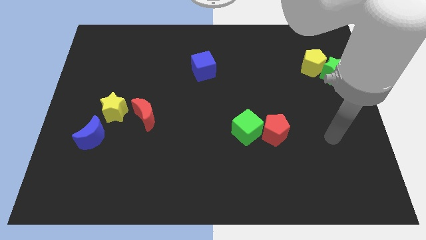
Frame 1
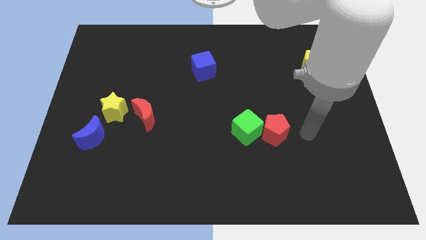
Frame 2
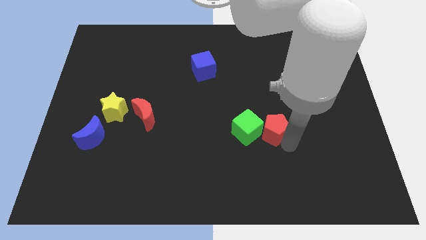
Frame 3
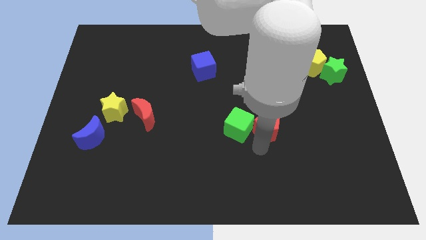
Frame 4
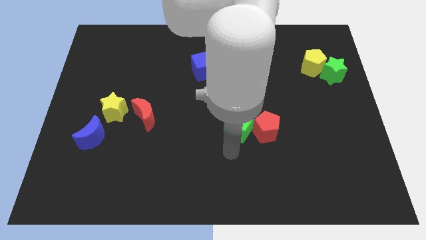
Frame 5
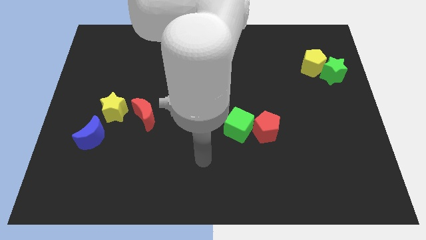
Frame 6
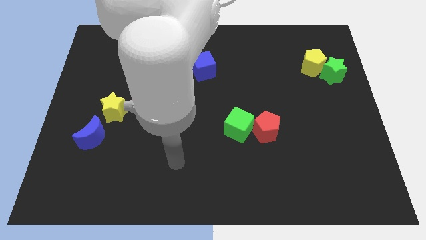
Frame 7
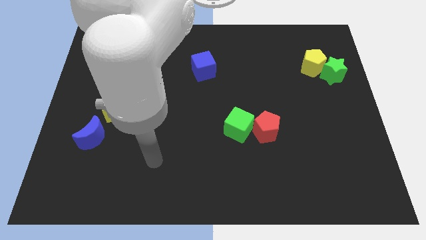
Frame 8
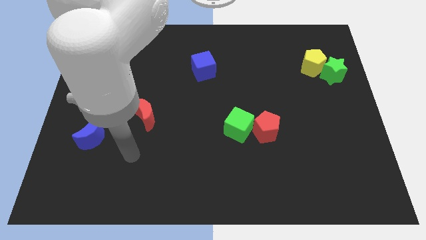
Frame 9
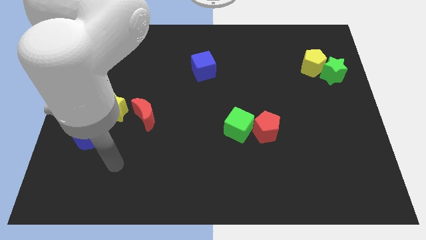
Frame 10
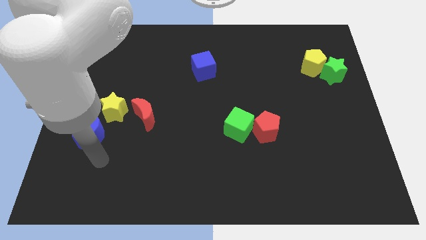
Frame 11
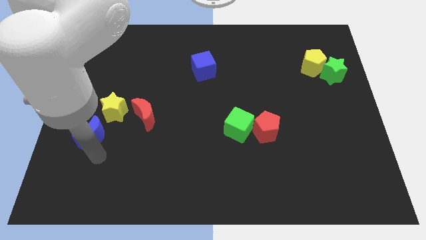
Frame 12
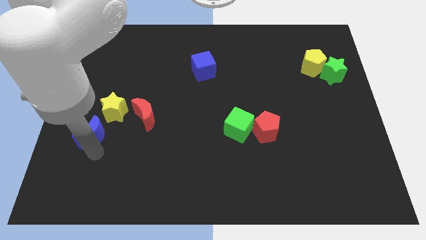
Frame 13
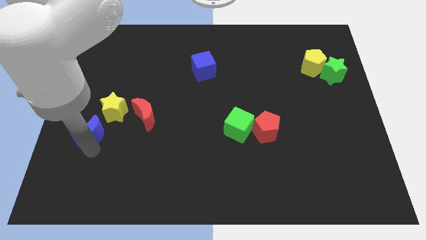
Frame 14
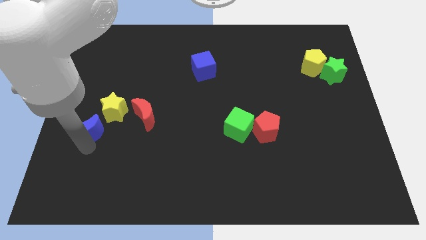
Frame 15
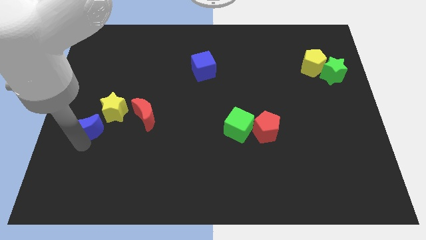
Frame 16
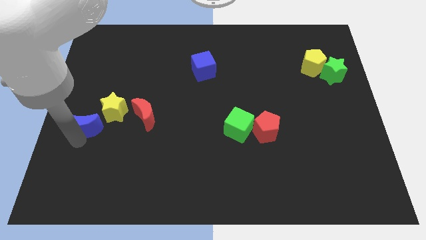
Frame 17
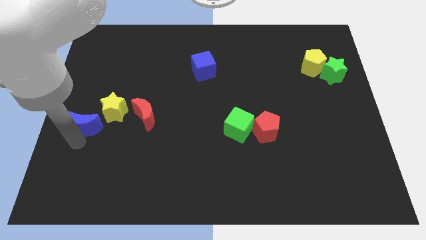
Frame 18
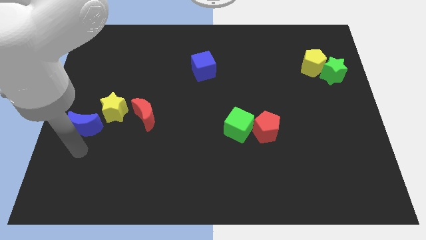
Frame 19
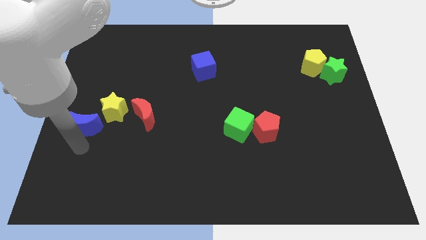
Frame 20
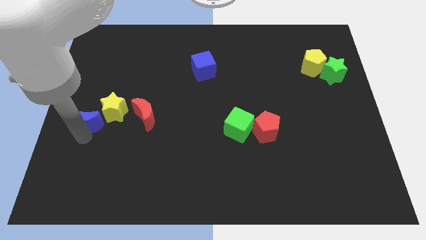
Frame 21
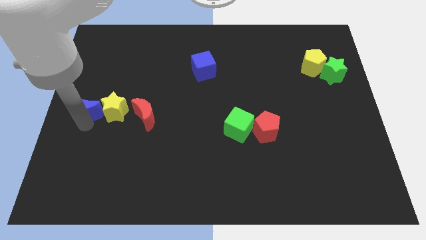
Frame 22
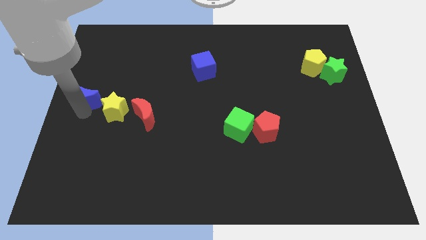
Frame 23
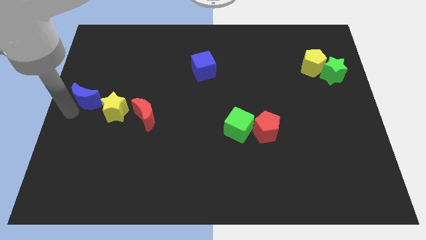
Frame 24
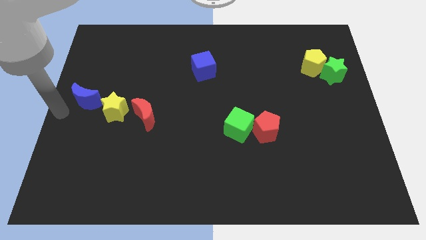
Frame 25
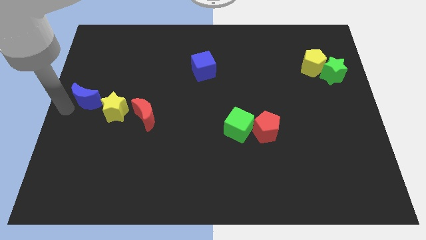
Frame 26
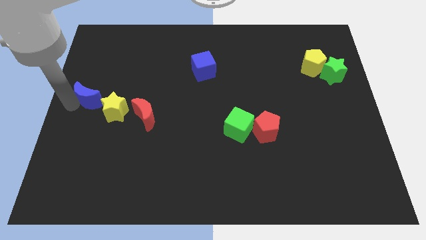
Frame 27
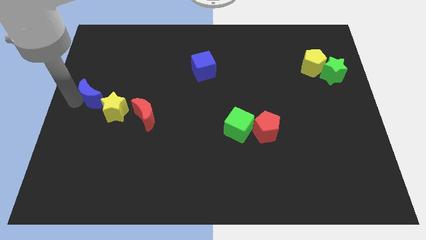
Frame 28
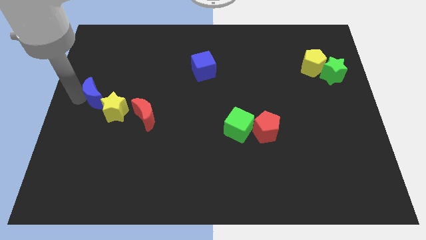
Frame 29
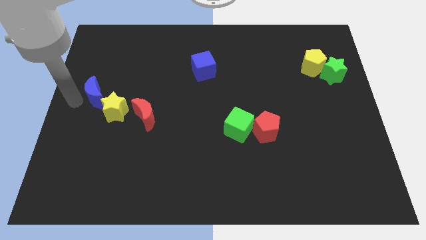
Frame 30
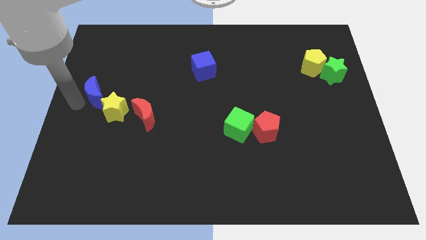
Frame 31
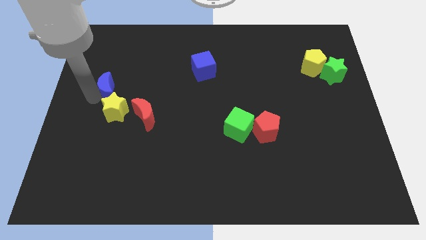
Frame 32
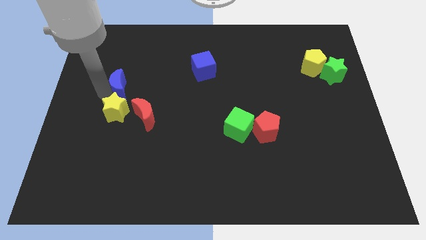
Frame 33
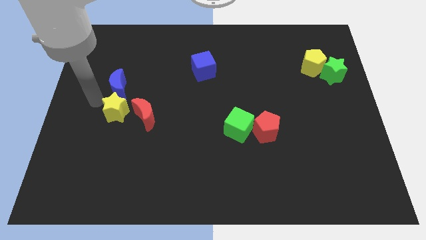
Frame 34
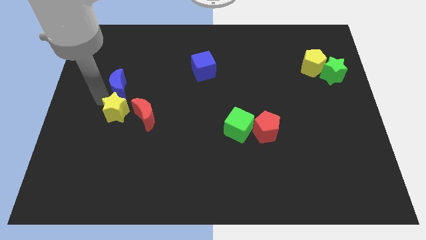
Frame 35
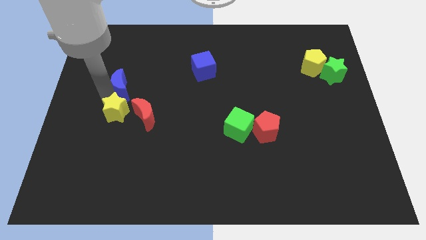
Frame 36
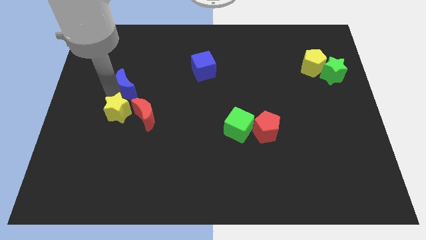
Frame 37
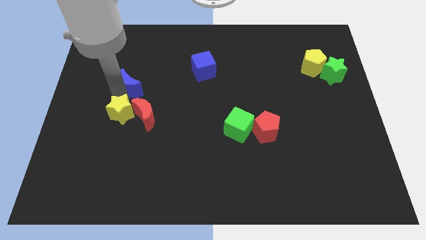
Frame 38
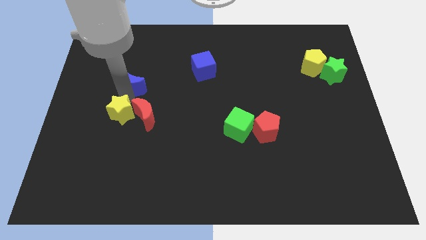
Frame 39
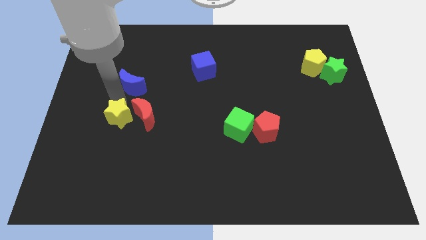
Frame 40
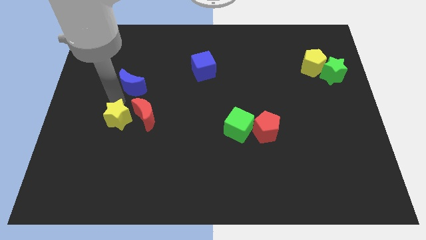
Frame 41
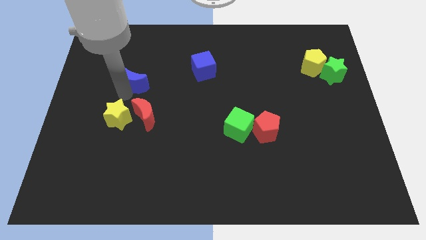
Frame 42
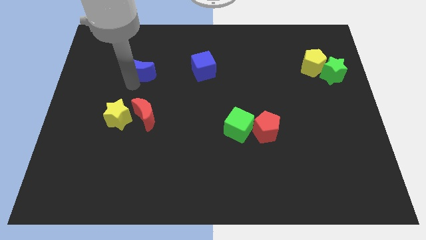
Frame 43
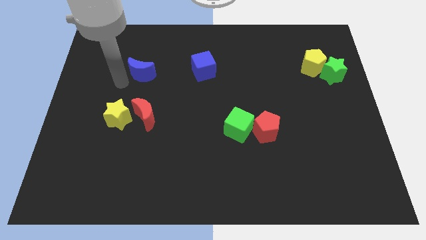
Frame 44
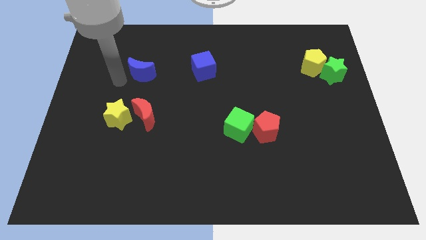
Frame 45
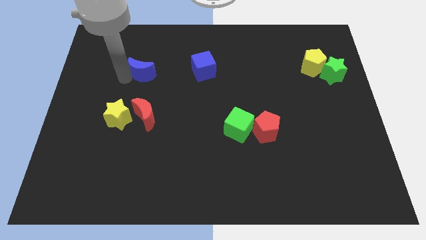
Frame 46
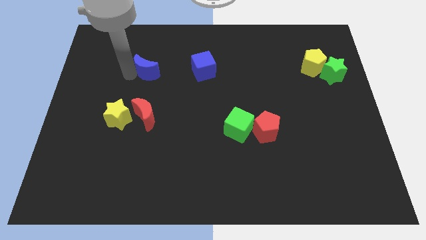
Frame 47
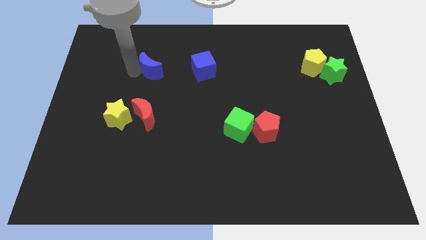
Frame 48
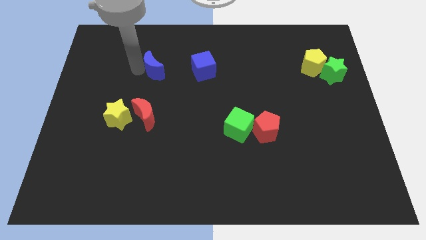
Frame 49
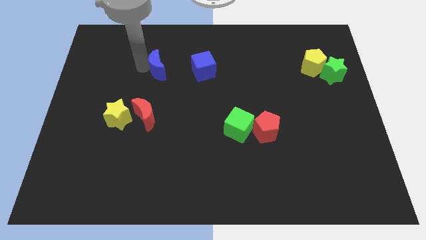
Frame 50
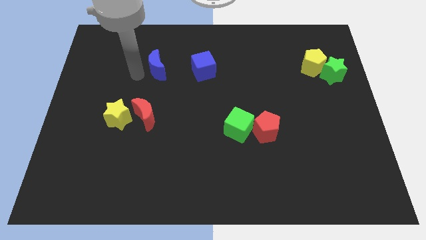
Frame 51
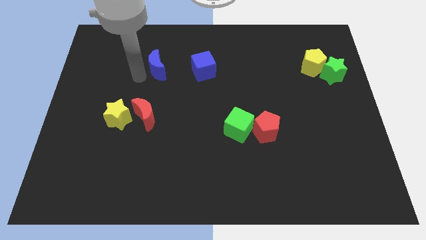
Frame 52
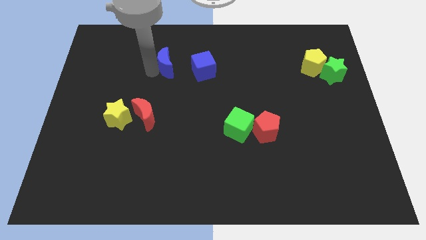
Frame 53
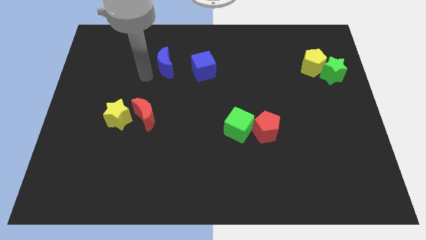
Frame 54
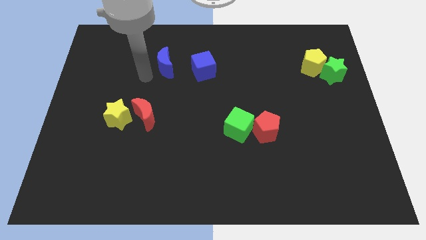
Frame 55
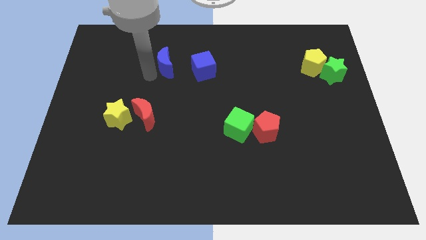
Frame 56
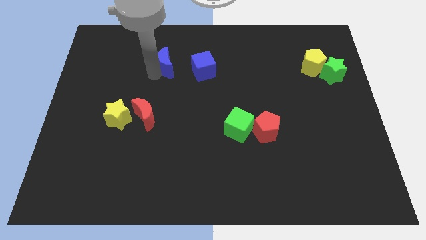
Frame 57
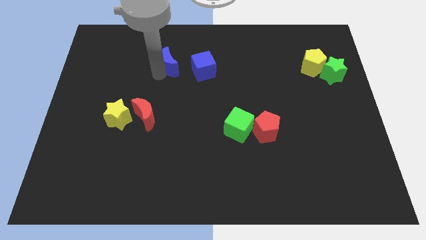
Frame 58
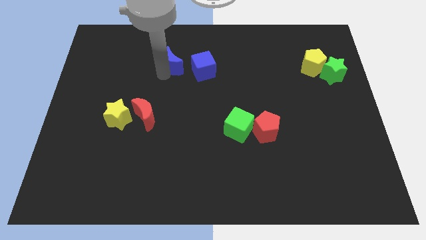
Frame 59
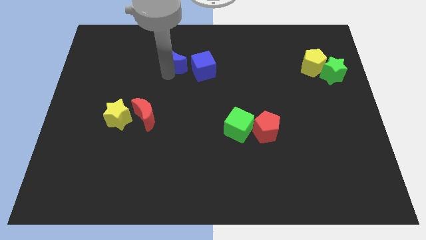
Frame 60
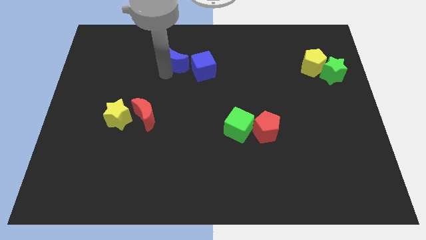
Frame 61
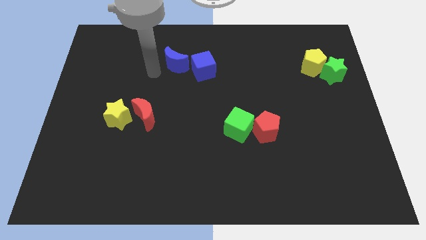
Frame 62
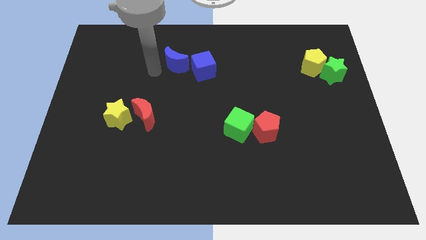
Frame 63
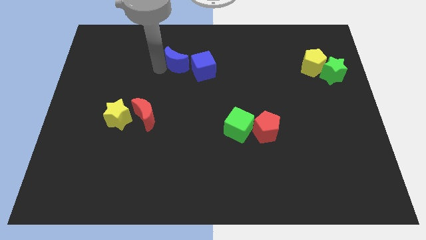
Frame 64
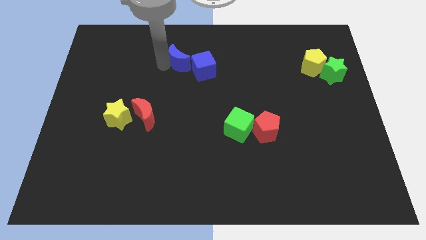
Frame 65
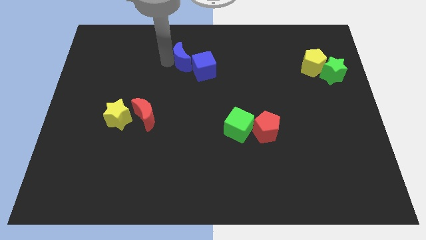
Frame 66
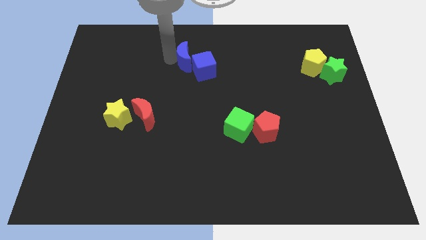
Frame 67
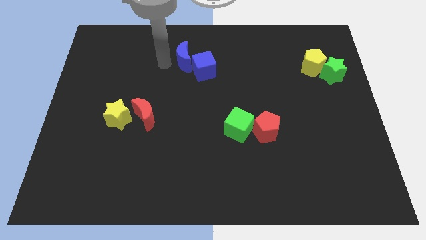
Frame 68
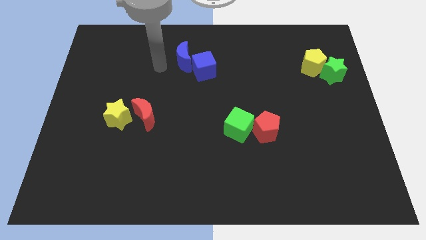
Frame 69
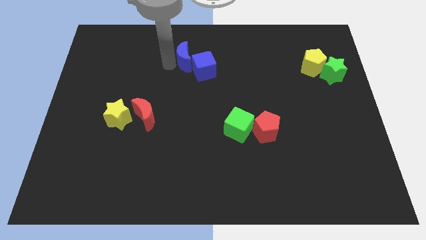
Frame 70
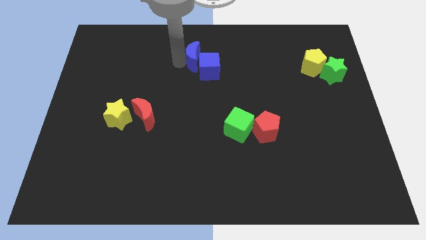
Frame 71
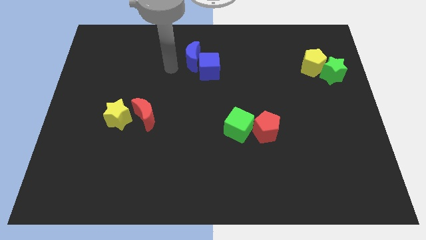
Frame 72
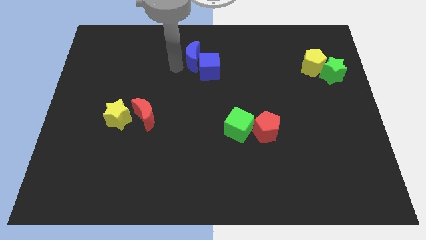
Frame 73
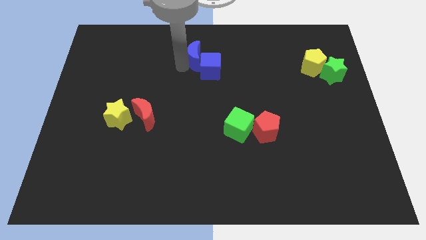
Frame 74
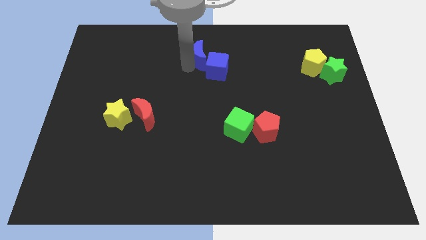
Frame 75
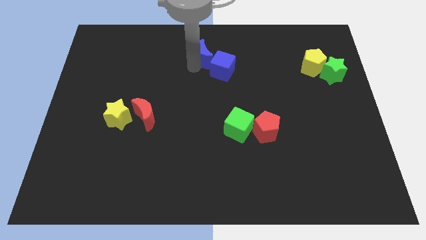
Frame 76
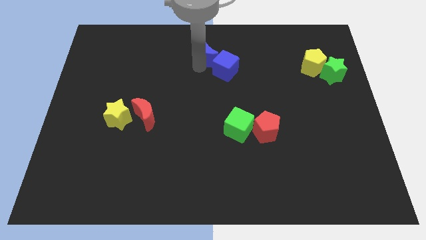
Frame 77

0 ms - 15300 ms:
put the blue moon to the top
